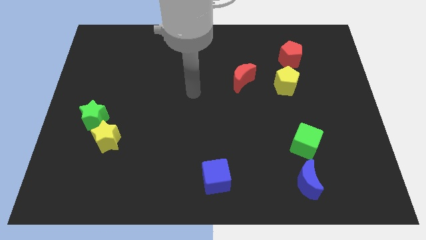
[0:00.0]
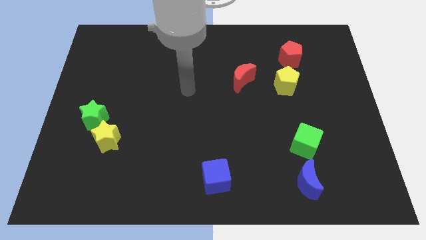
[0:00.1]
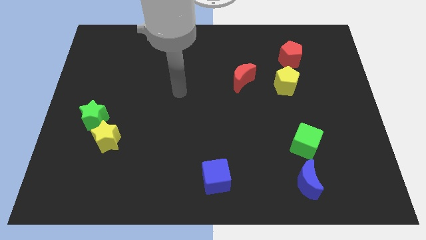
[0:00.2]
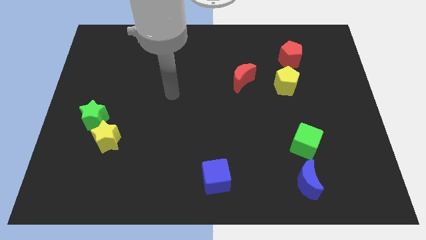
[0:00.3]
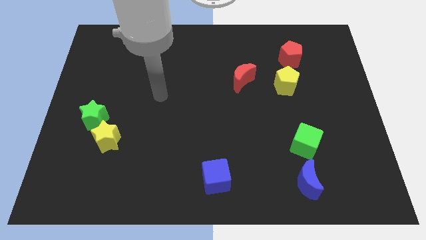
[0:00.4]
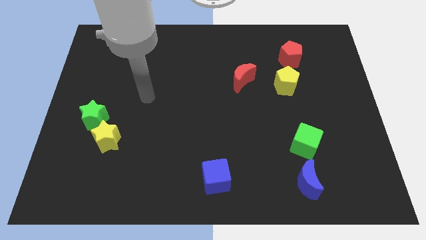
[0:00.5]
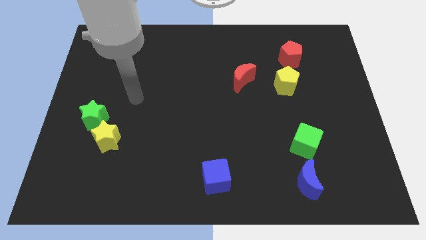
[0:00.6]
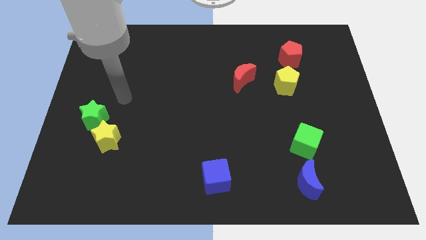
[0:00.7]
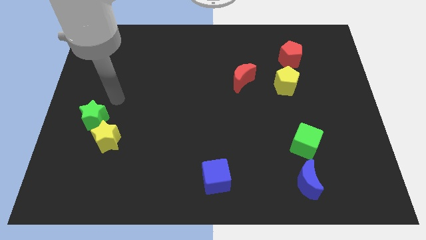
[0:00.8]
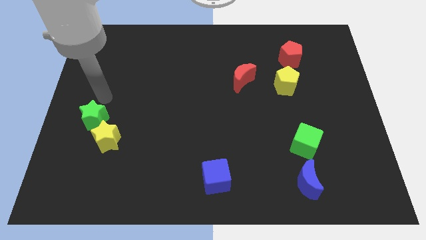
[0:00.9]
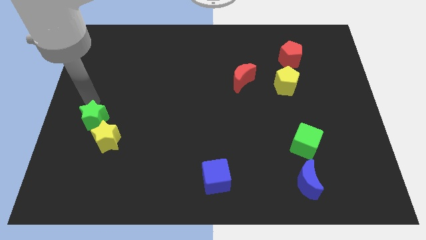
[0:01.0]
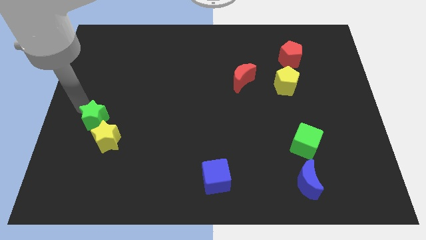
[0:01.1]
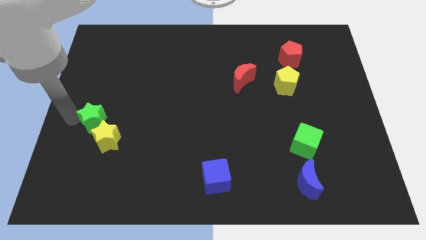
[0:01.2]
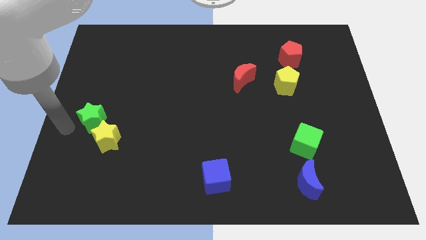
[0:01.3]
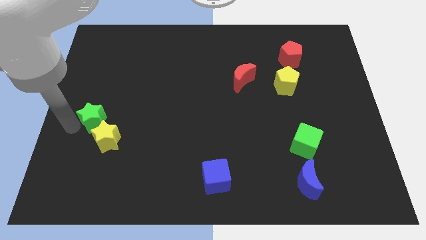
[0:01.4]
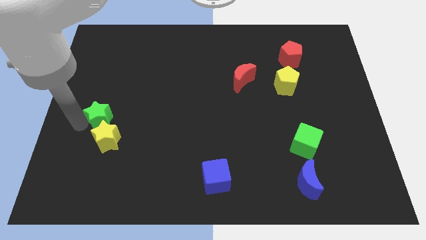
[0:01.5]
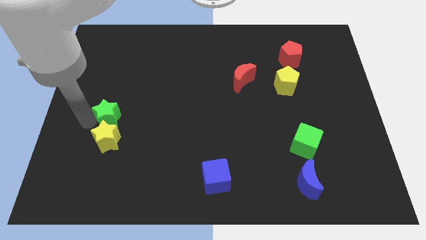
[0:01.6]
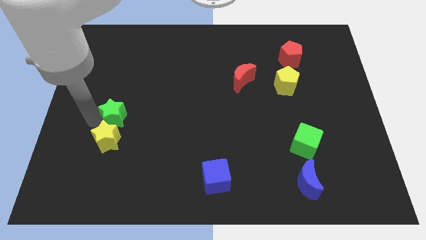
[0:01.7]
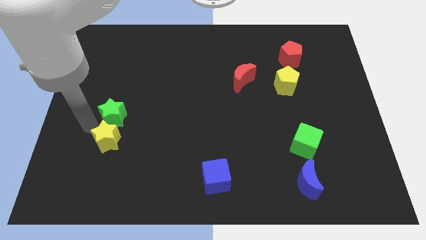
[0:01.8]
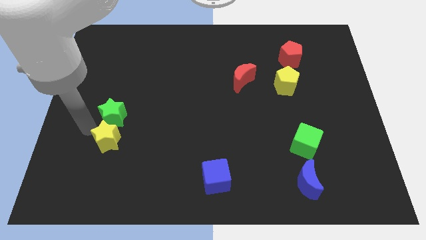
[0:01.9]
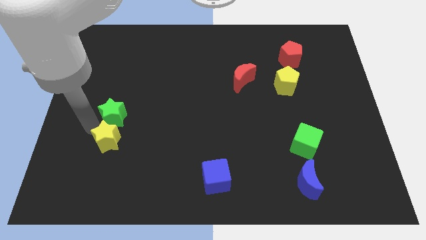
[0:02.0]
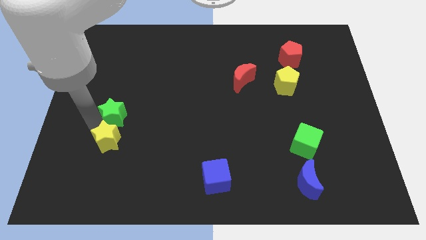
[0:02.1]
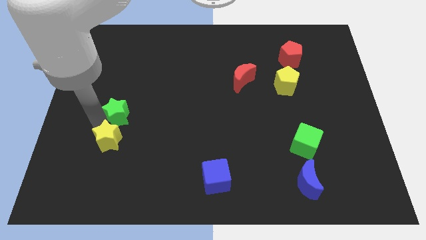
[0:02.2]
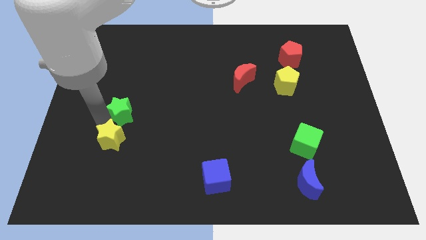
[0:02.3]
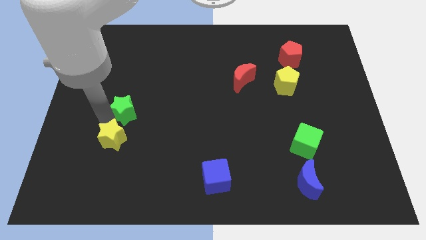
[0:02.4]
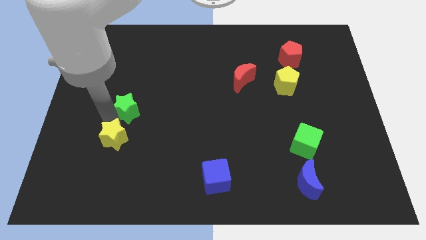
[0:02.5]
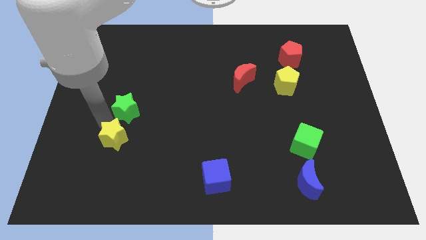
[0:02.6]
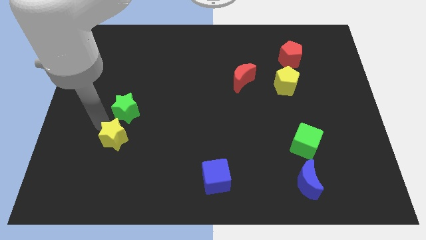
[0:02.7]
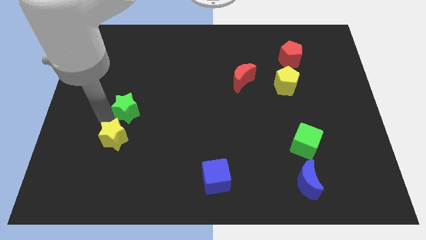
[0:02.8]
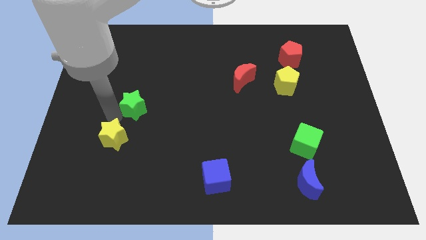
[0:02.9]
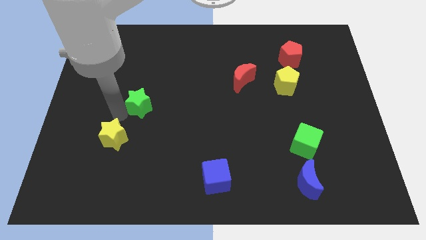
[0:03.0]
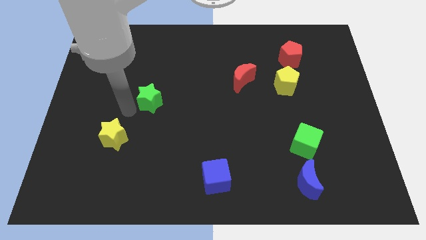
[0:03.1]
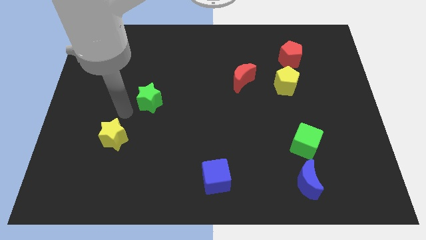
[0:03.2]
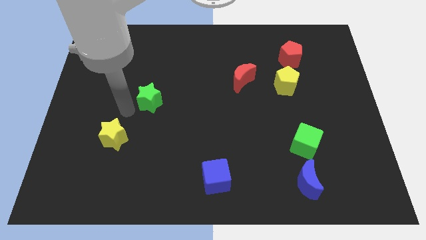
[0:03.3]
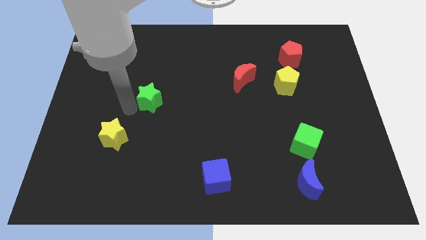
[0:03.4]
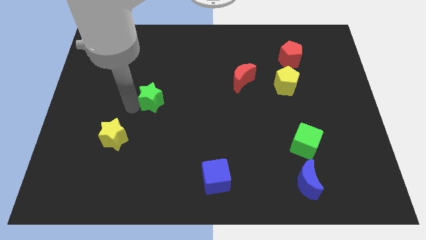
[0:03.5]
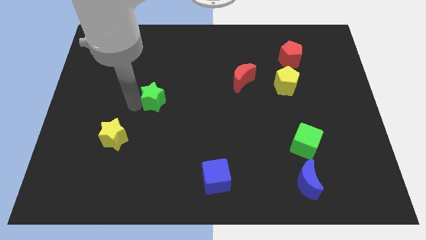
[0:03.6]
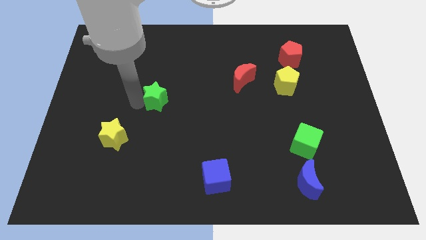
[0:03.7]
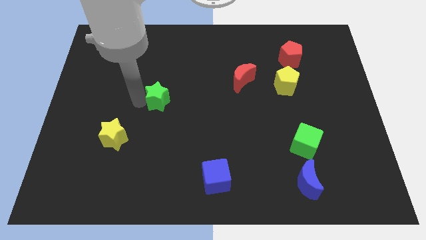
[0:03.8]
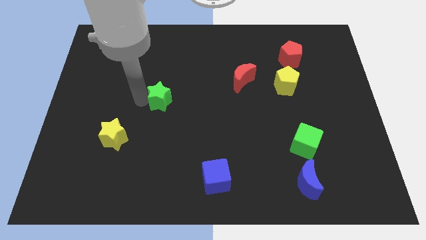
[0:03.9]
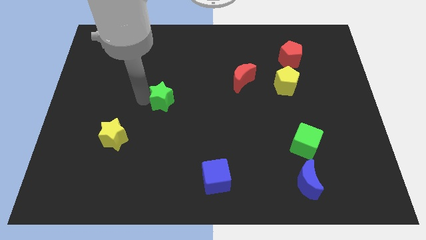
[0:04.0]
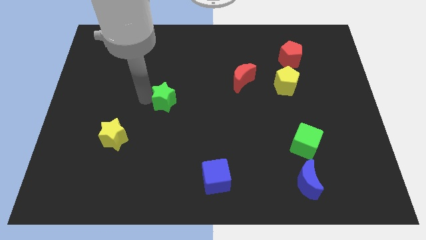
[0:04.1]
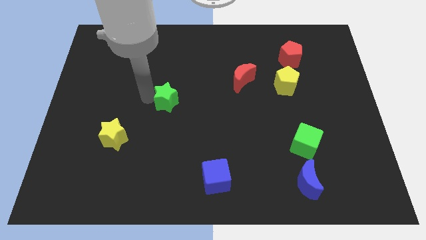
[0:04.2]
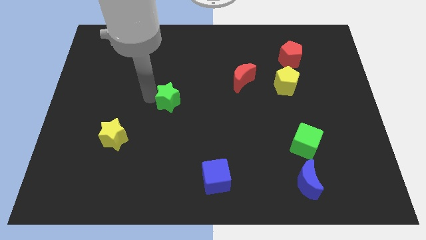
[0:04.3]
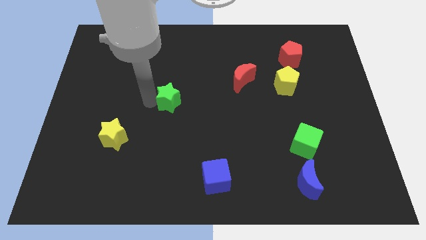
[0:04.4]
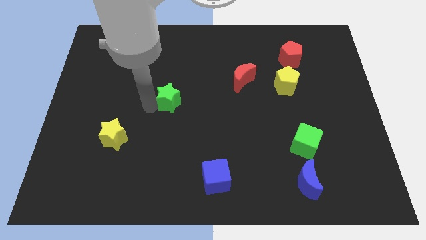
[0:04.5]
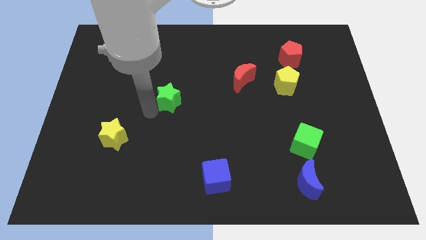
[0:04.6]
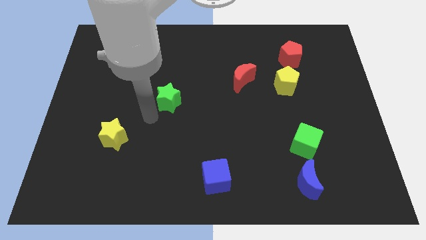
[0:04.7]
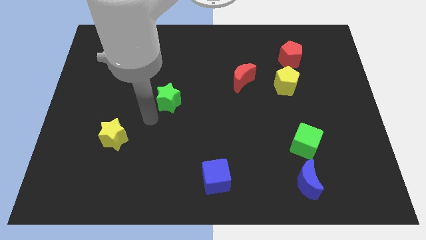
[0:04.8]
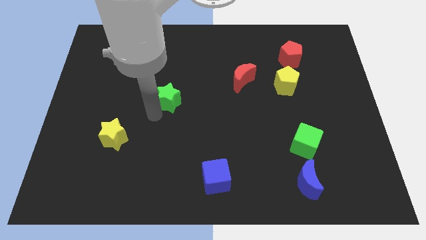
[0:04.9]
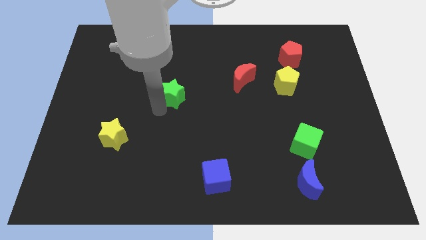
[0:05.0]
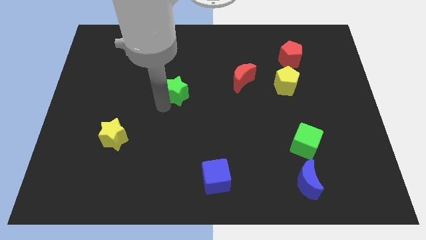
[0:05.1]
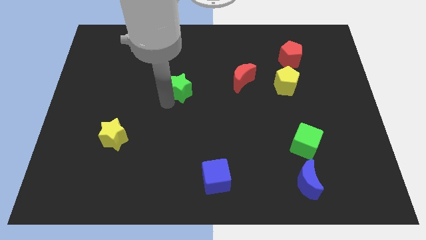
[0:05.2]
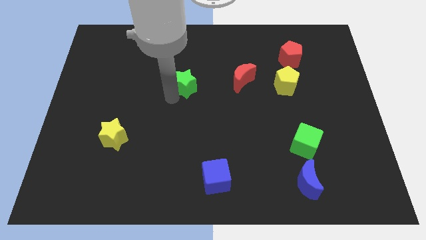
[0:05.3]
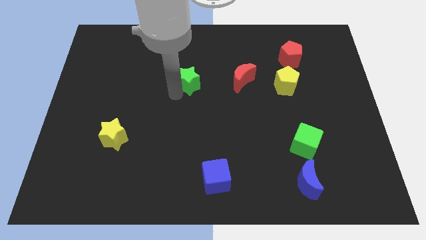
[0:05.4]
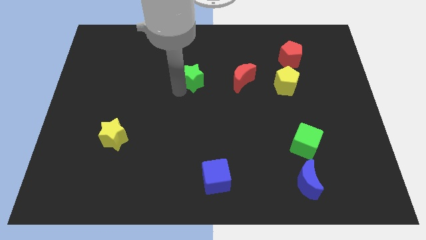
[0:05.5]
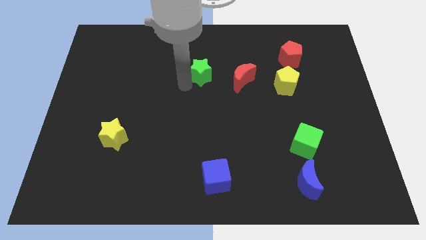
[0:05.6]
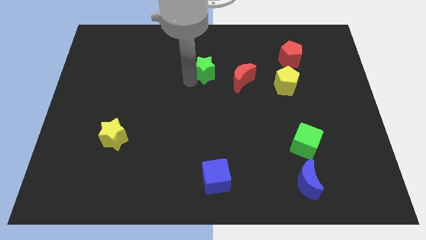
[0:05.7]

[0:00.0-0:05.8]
push the green star to the top left side of the red moon

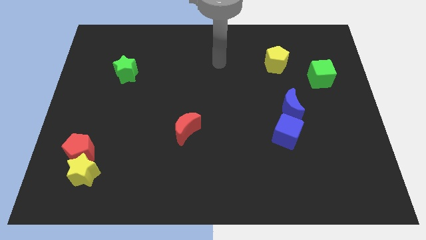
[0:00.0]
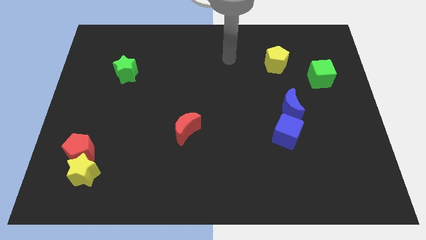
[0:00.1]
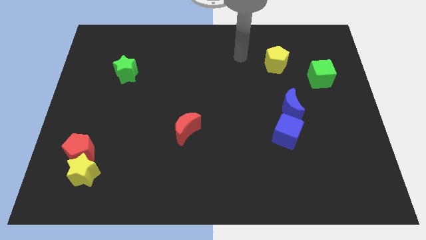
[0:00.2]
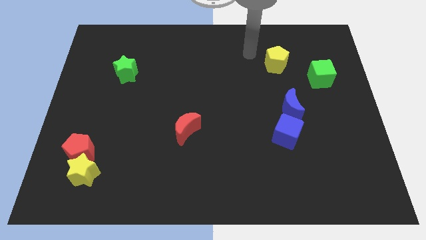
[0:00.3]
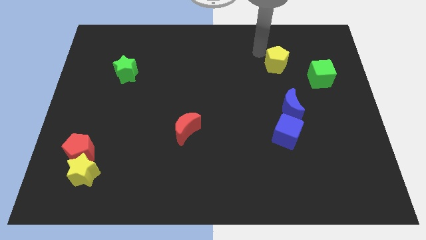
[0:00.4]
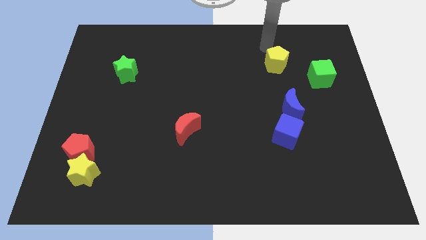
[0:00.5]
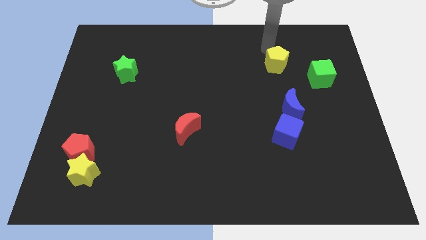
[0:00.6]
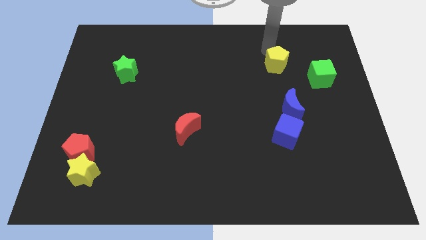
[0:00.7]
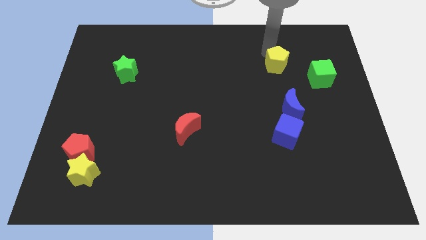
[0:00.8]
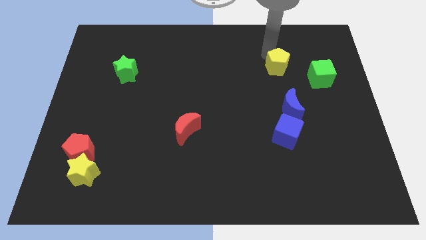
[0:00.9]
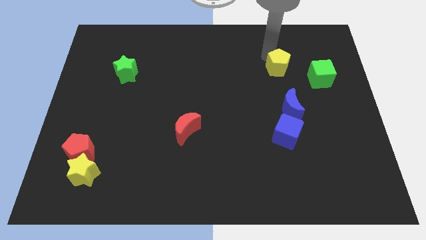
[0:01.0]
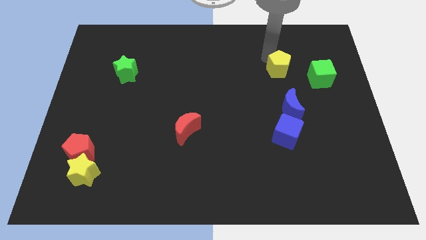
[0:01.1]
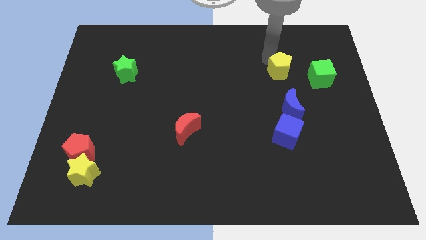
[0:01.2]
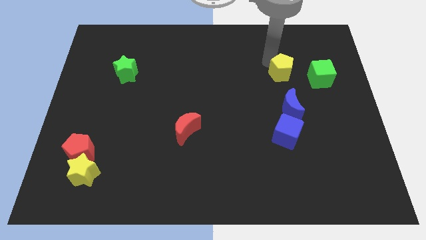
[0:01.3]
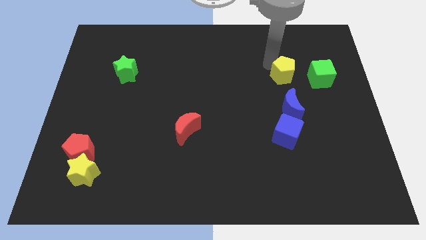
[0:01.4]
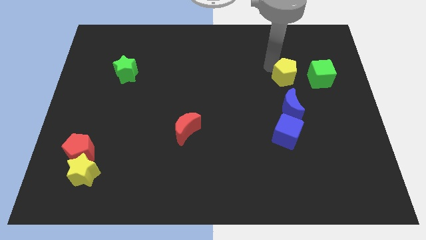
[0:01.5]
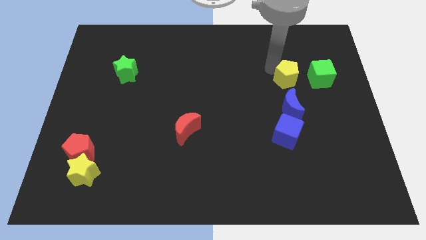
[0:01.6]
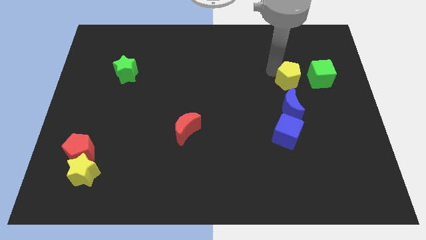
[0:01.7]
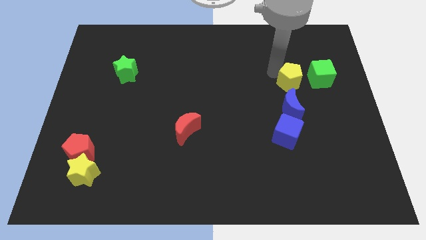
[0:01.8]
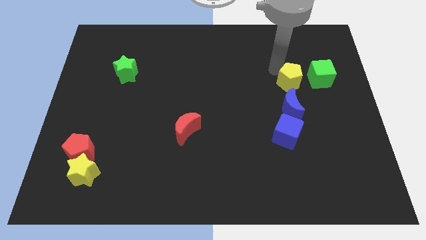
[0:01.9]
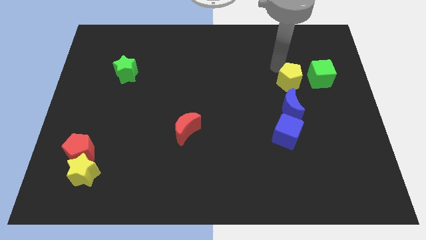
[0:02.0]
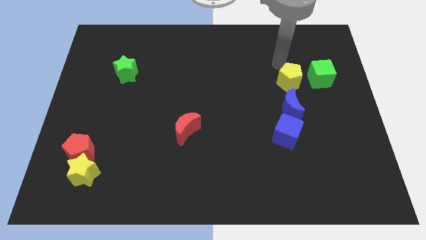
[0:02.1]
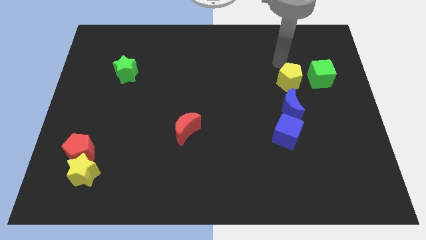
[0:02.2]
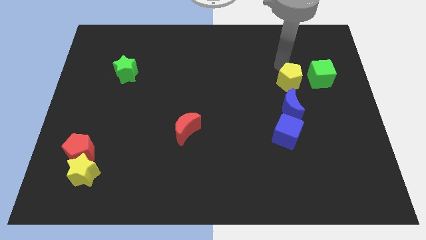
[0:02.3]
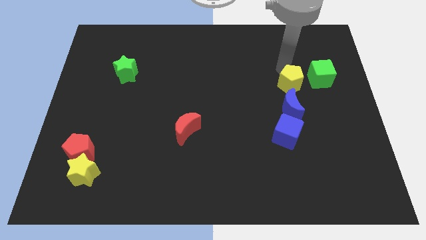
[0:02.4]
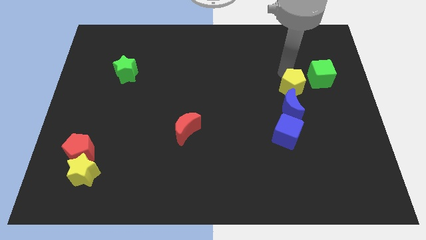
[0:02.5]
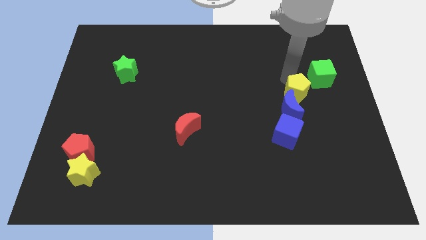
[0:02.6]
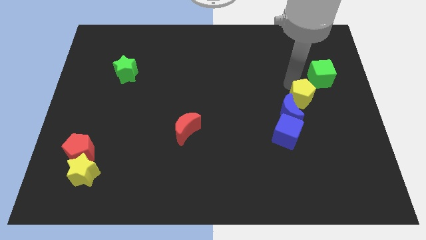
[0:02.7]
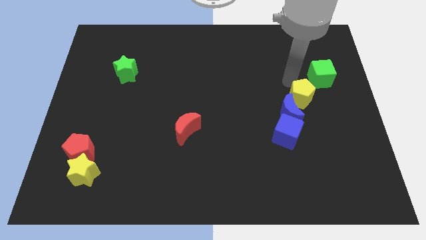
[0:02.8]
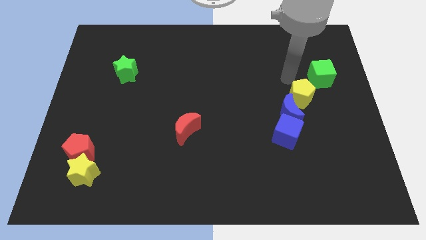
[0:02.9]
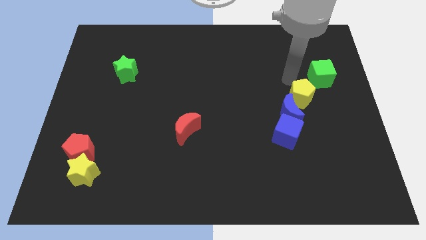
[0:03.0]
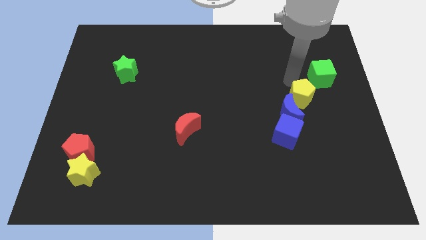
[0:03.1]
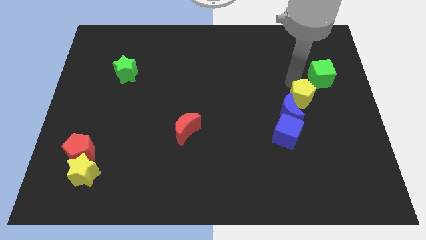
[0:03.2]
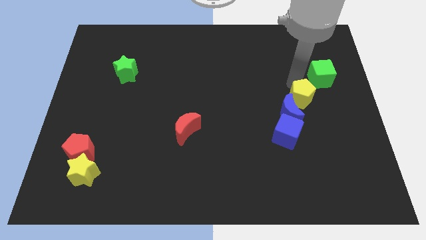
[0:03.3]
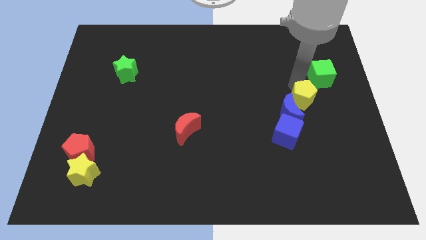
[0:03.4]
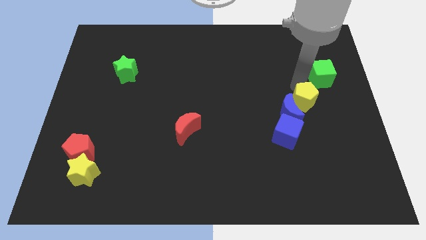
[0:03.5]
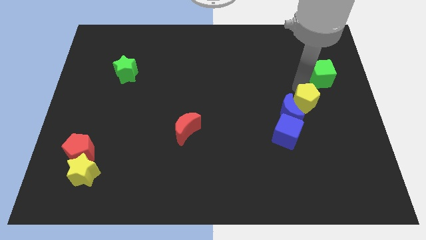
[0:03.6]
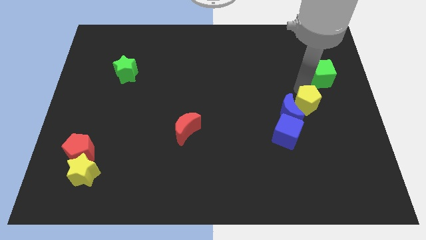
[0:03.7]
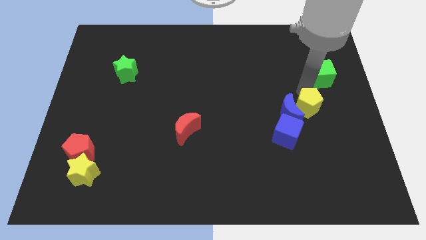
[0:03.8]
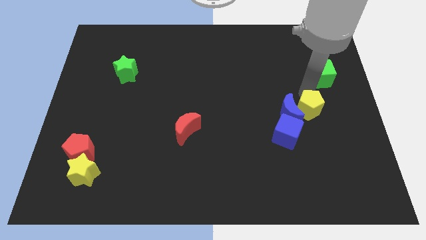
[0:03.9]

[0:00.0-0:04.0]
put the yellow pentagon to the bottom right of the blue moon
